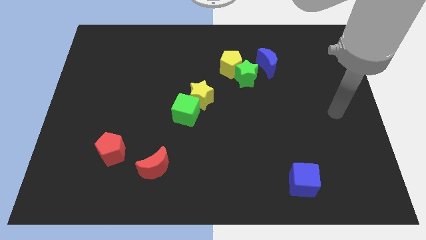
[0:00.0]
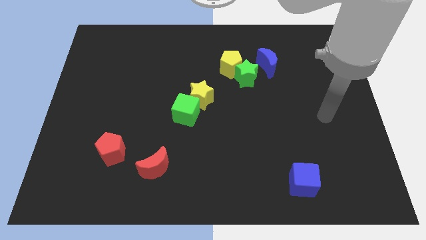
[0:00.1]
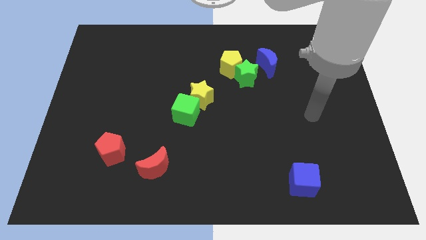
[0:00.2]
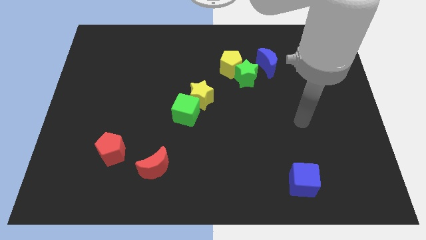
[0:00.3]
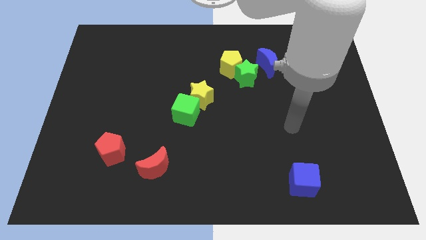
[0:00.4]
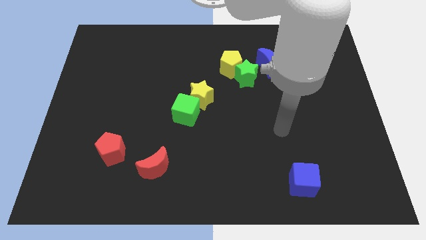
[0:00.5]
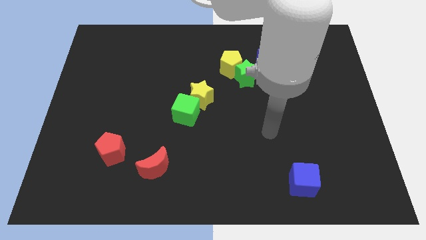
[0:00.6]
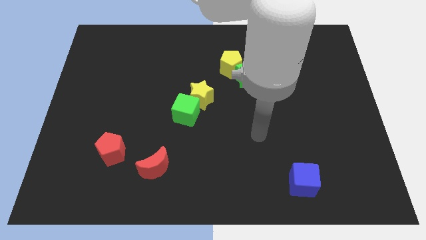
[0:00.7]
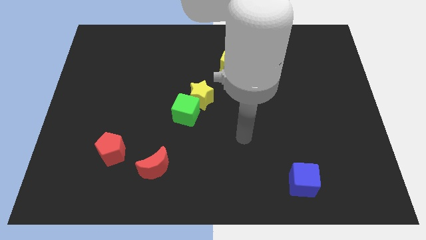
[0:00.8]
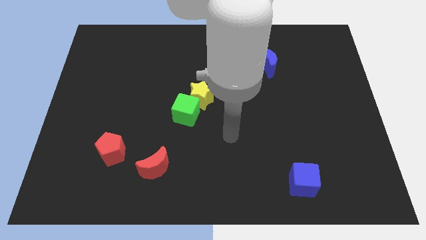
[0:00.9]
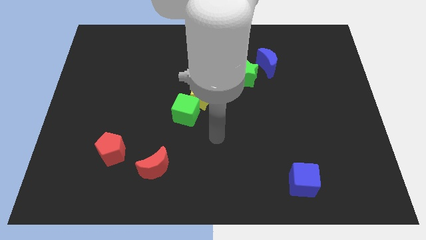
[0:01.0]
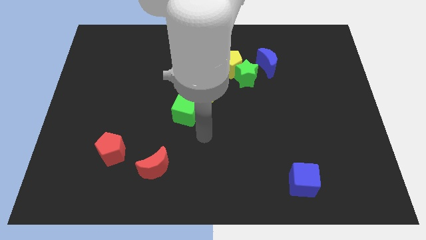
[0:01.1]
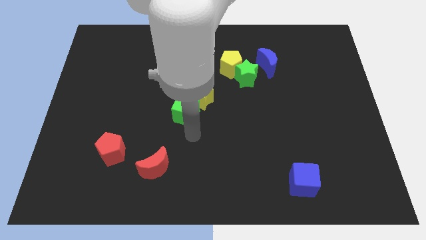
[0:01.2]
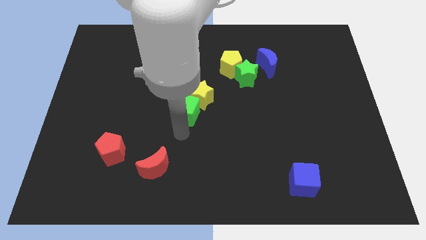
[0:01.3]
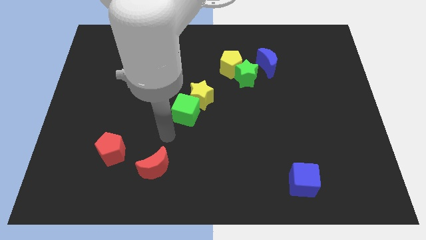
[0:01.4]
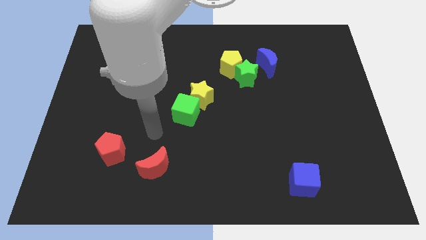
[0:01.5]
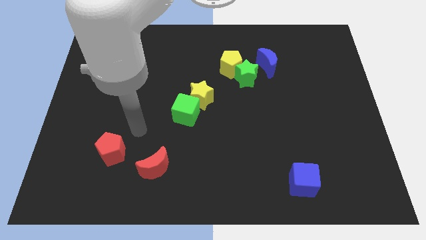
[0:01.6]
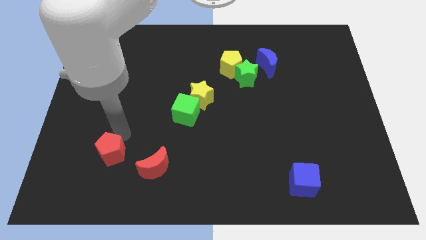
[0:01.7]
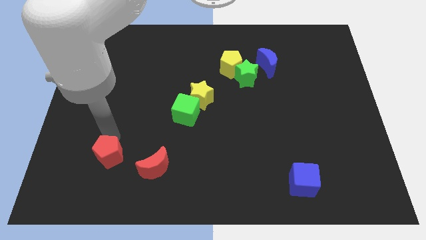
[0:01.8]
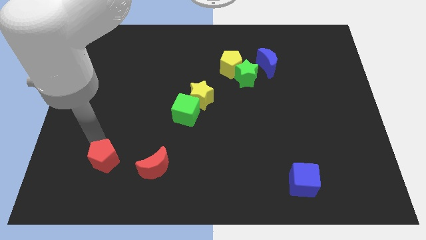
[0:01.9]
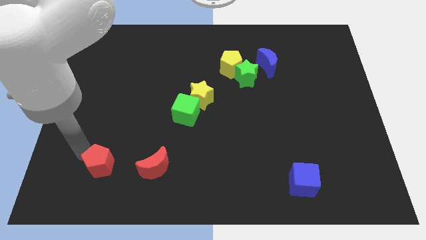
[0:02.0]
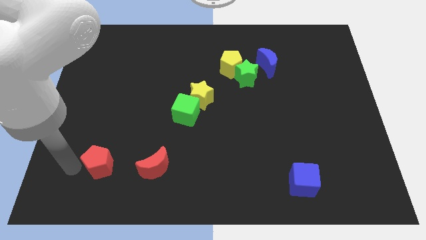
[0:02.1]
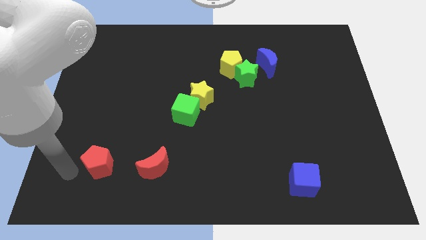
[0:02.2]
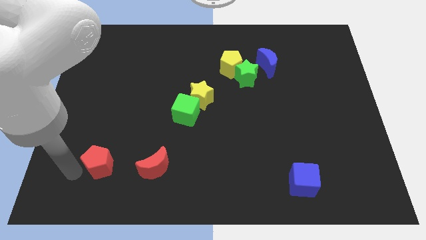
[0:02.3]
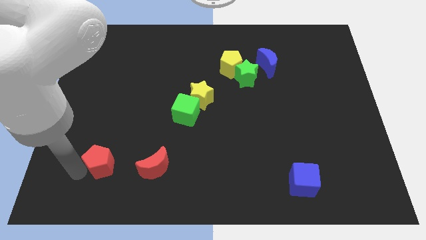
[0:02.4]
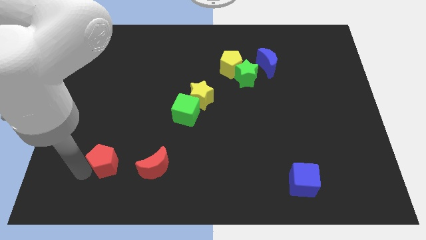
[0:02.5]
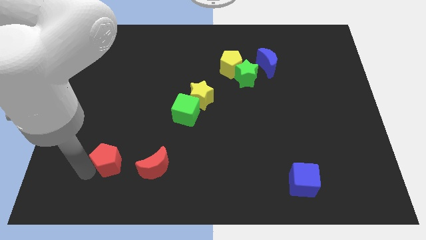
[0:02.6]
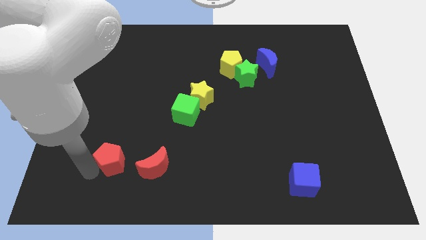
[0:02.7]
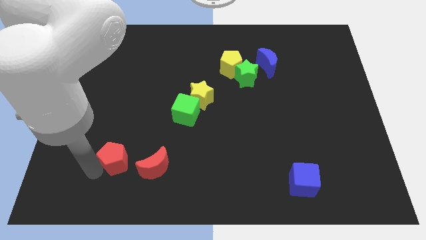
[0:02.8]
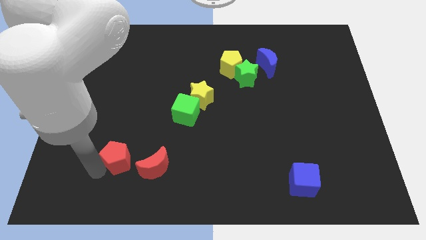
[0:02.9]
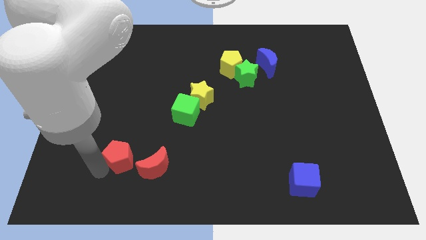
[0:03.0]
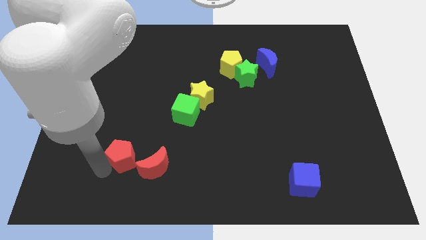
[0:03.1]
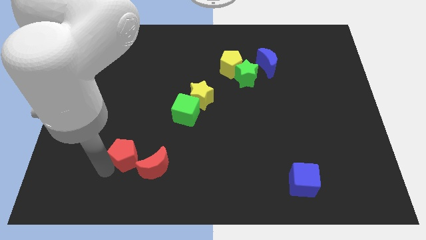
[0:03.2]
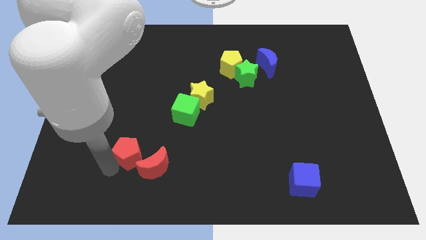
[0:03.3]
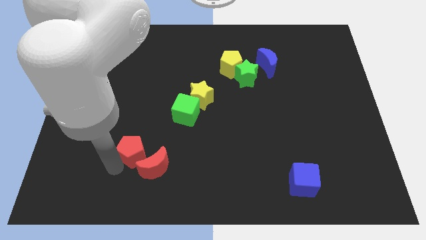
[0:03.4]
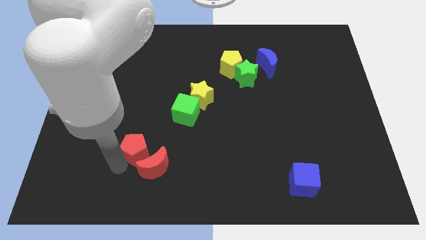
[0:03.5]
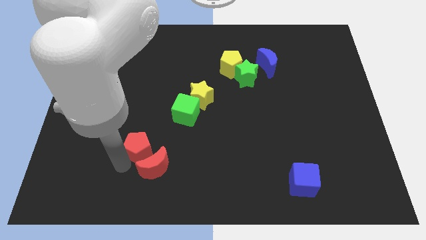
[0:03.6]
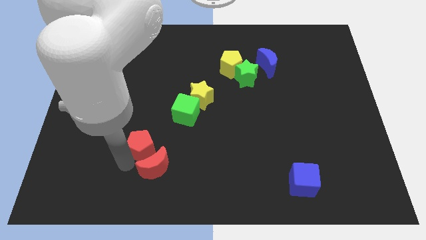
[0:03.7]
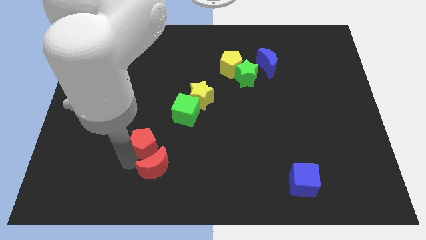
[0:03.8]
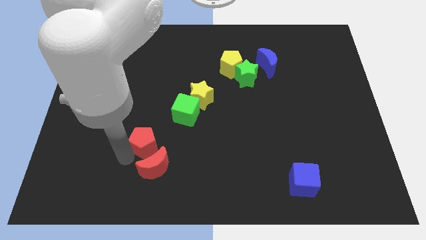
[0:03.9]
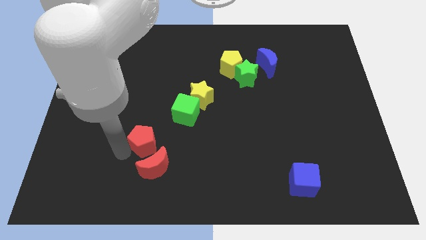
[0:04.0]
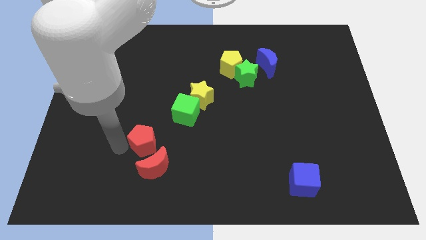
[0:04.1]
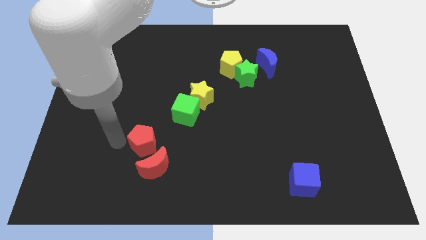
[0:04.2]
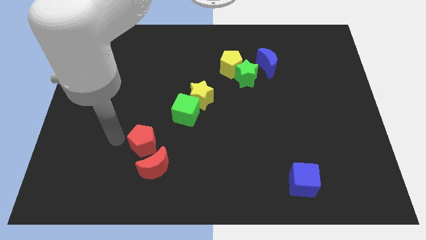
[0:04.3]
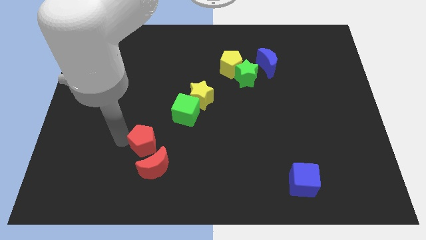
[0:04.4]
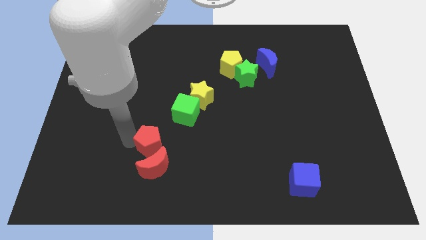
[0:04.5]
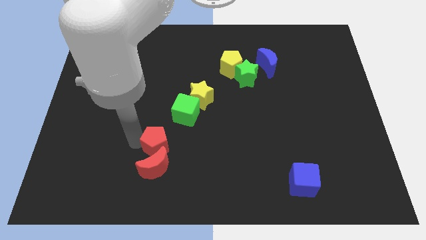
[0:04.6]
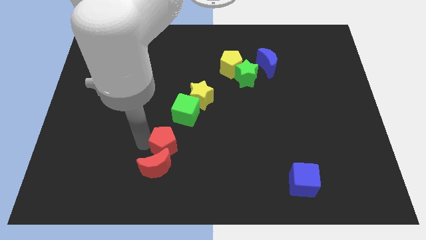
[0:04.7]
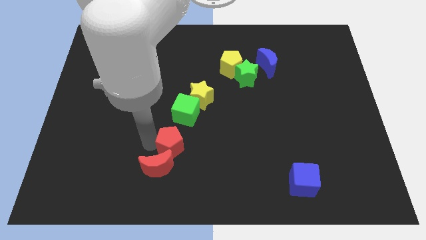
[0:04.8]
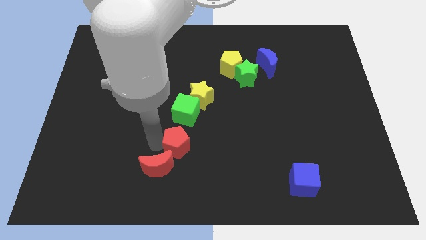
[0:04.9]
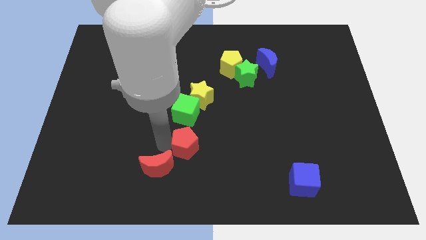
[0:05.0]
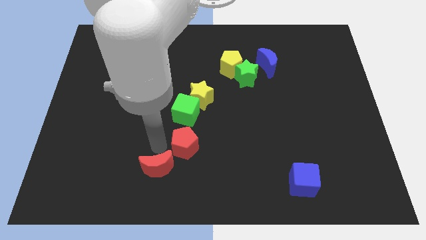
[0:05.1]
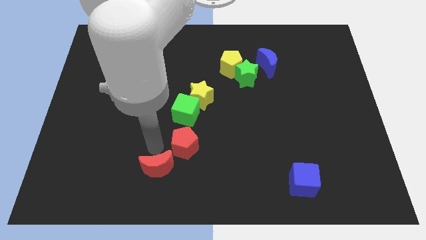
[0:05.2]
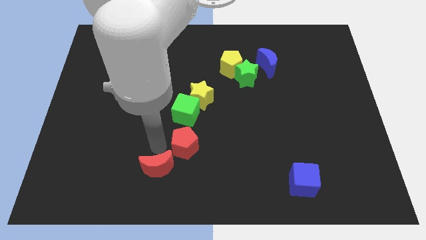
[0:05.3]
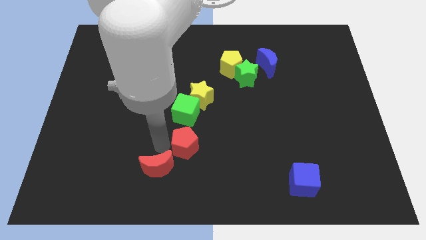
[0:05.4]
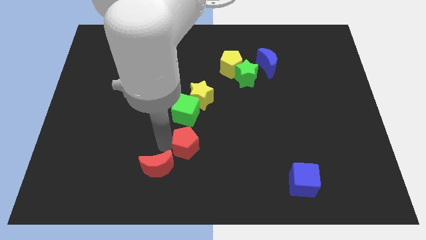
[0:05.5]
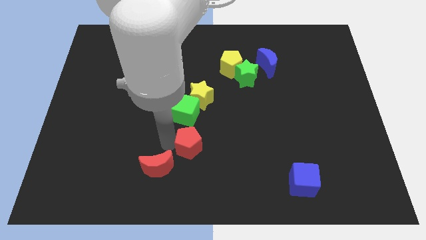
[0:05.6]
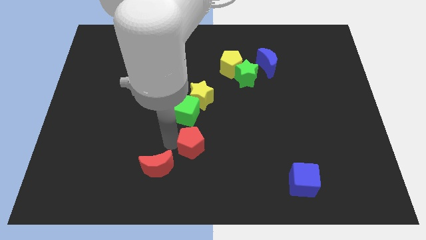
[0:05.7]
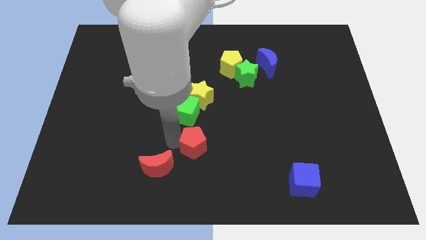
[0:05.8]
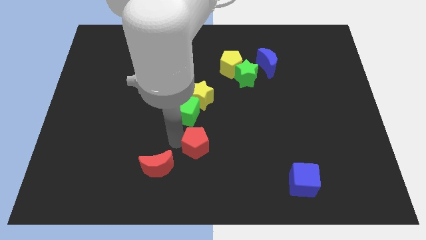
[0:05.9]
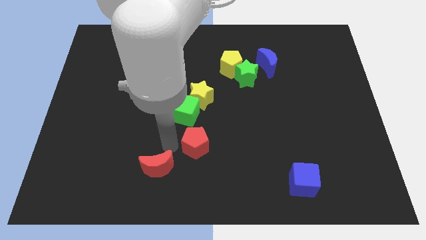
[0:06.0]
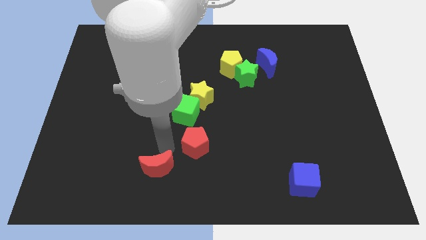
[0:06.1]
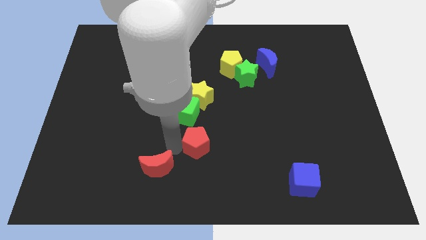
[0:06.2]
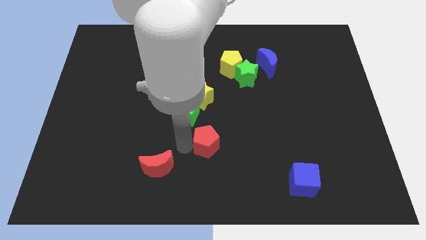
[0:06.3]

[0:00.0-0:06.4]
push the red pentagon right

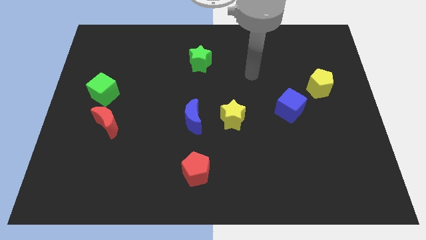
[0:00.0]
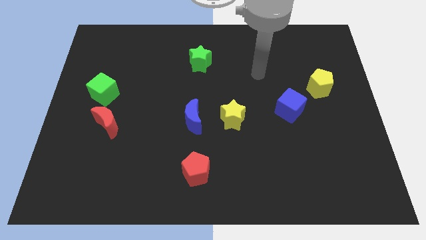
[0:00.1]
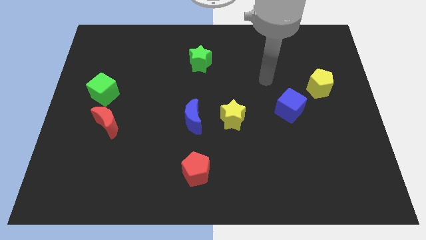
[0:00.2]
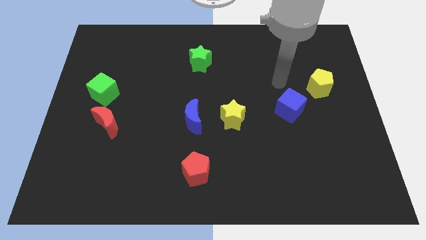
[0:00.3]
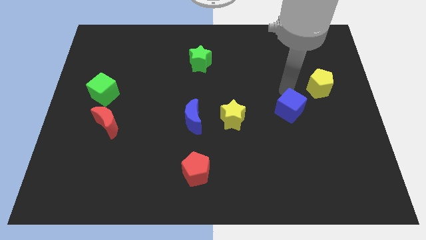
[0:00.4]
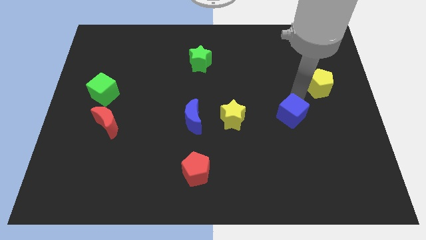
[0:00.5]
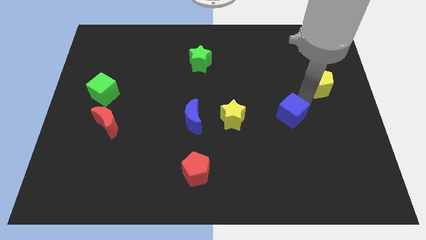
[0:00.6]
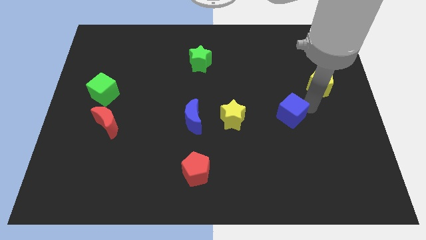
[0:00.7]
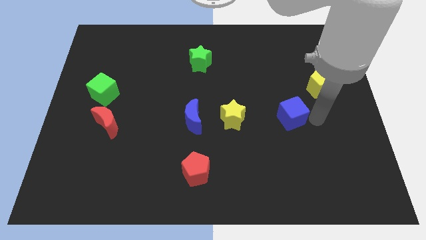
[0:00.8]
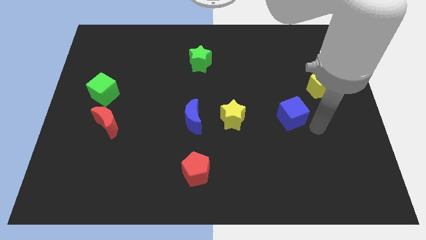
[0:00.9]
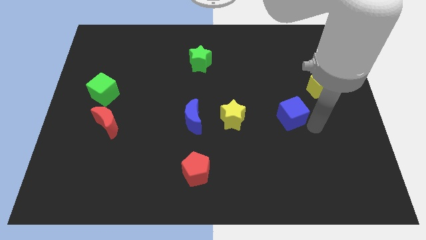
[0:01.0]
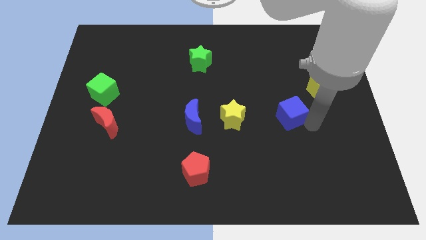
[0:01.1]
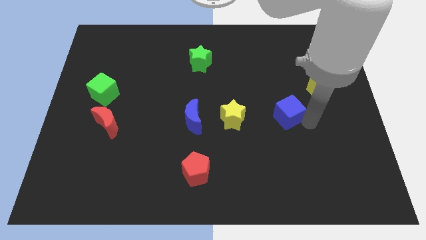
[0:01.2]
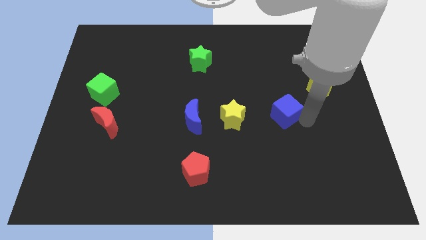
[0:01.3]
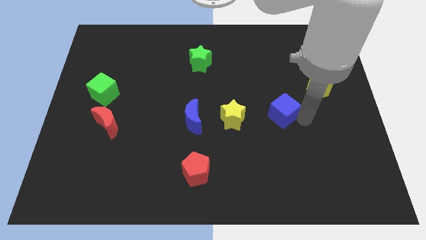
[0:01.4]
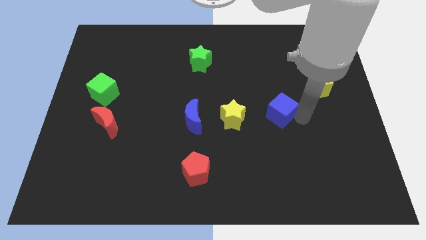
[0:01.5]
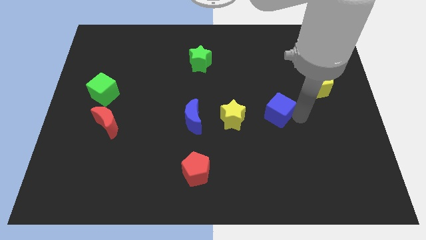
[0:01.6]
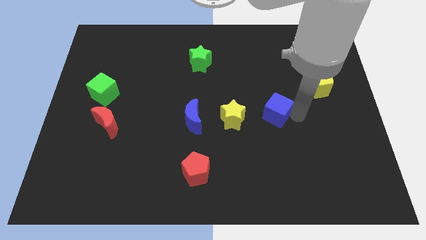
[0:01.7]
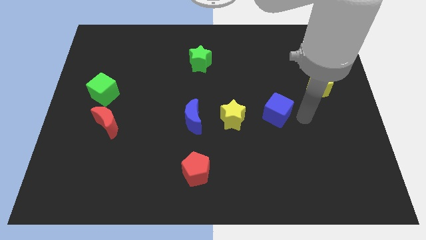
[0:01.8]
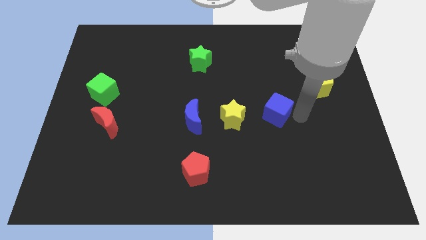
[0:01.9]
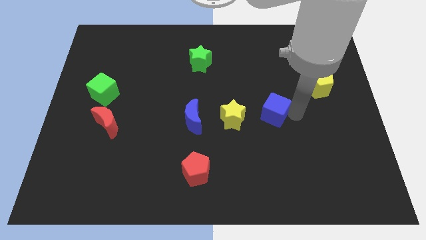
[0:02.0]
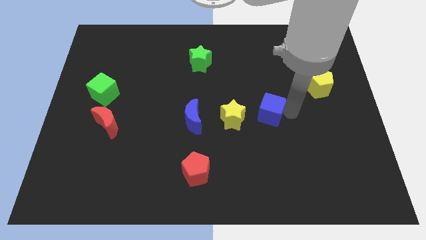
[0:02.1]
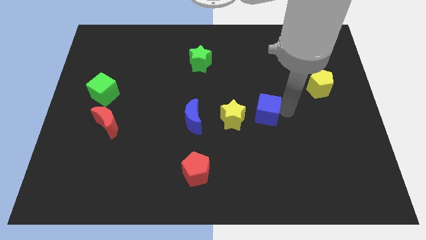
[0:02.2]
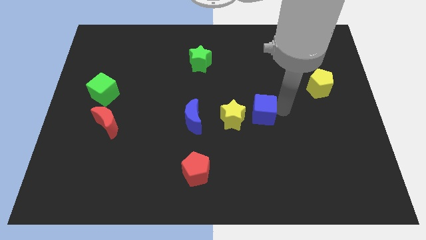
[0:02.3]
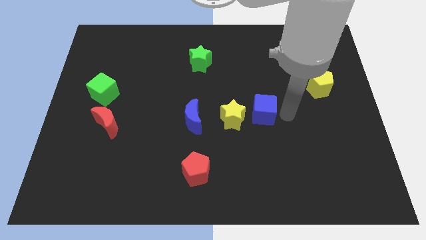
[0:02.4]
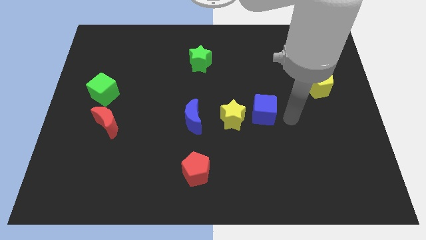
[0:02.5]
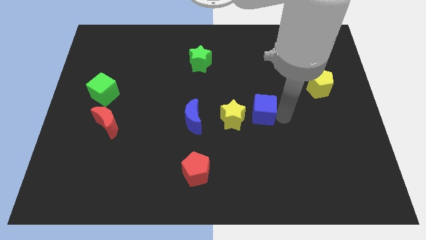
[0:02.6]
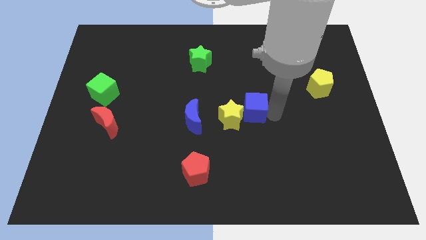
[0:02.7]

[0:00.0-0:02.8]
move the blue cube a bit to the left
